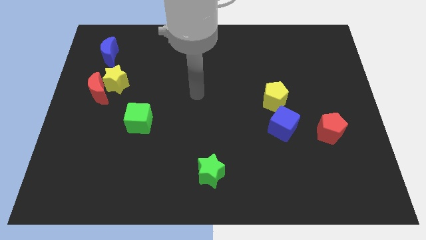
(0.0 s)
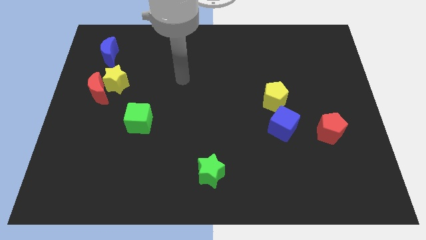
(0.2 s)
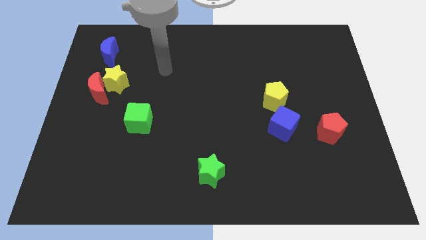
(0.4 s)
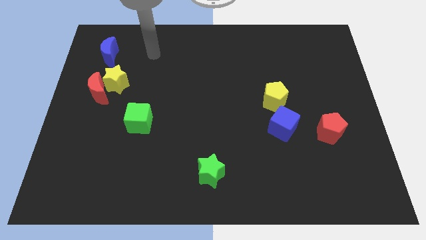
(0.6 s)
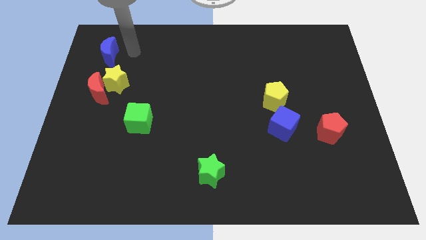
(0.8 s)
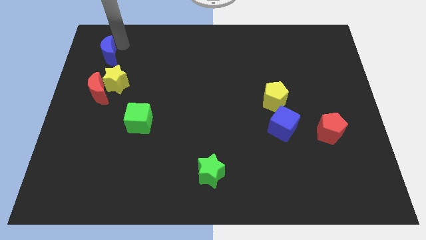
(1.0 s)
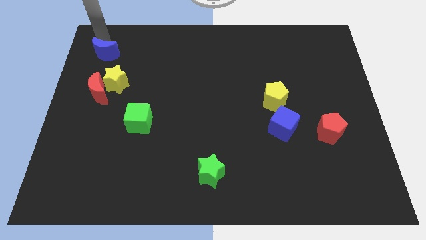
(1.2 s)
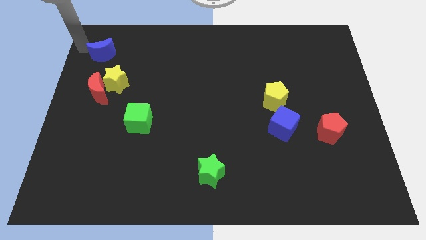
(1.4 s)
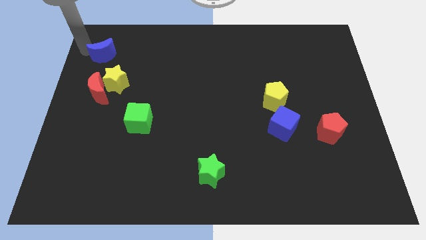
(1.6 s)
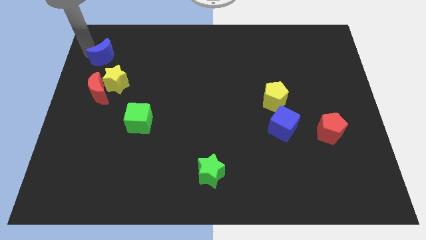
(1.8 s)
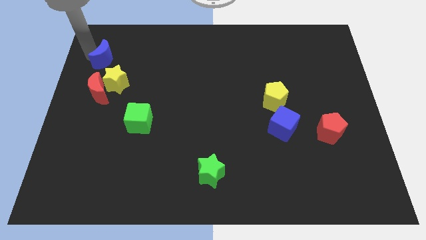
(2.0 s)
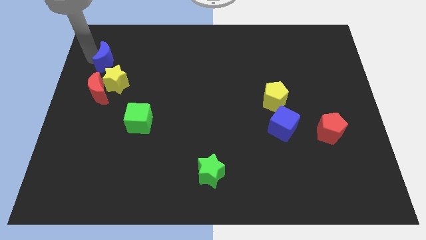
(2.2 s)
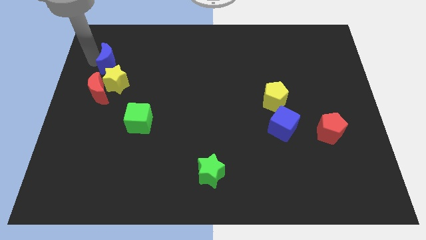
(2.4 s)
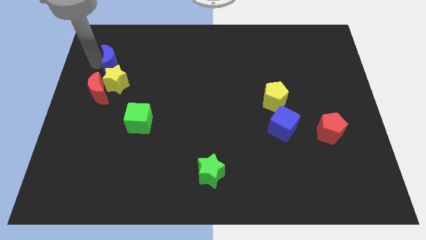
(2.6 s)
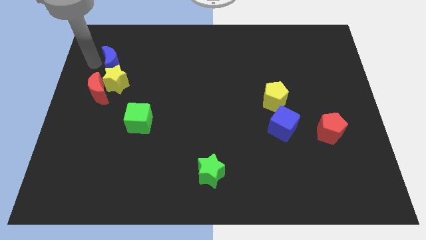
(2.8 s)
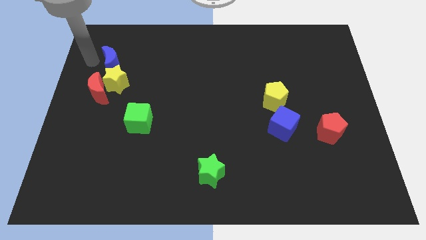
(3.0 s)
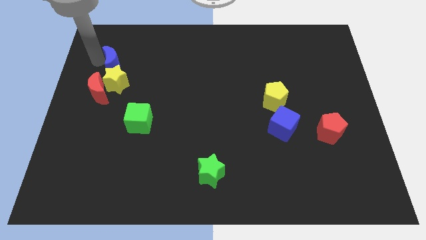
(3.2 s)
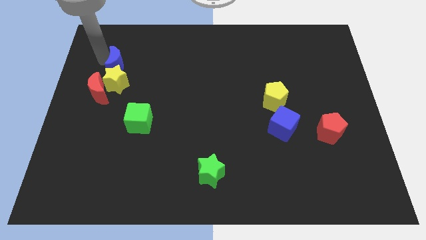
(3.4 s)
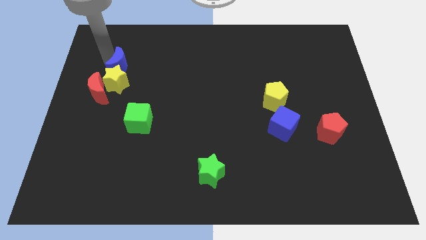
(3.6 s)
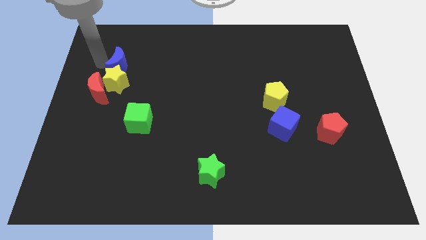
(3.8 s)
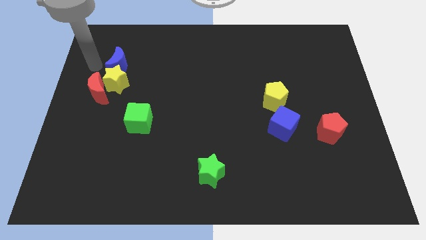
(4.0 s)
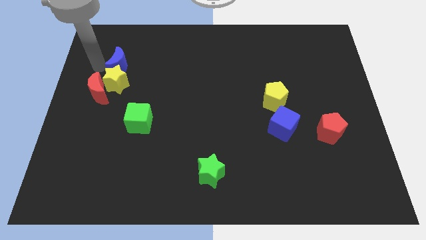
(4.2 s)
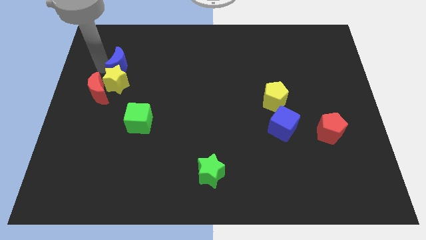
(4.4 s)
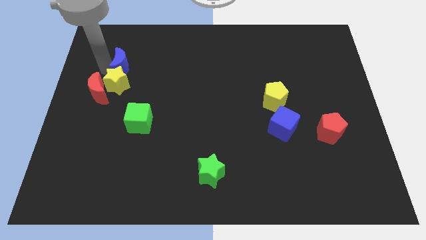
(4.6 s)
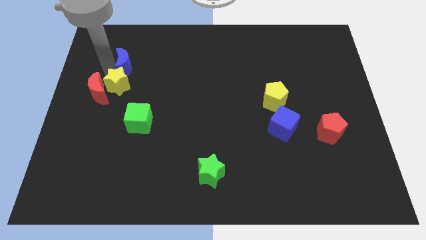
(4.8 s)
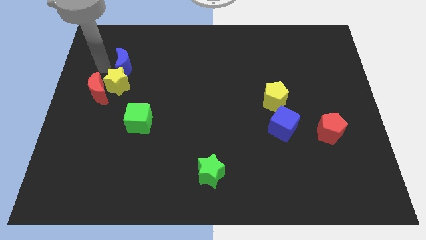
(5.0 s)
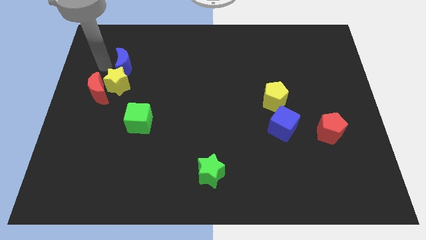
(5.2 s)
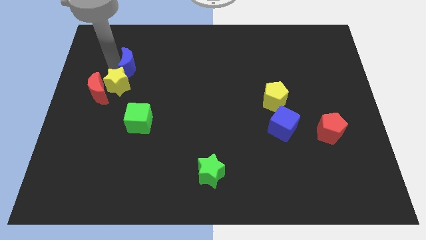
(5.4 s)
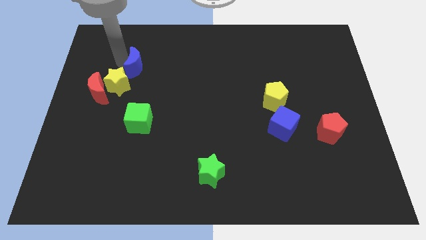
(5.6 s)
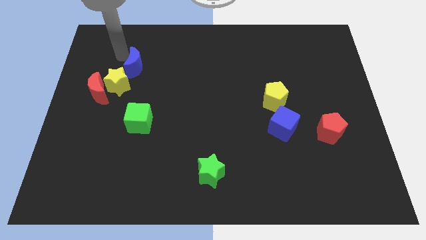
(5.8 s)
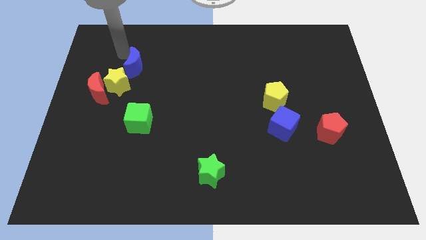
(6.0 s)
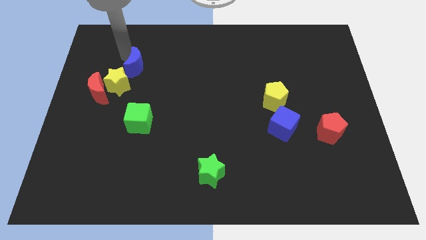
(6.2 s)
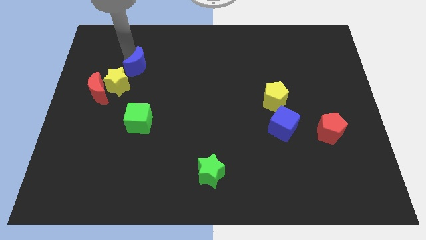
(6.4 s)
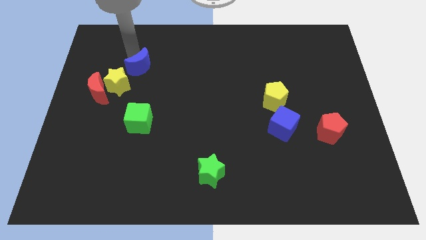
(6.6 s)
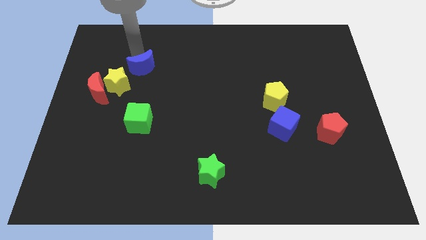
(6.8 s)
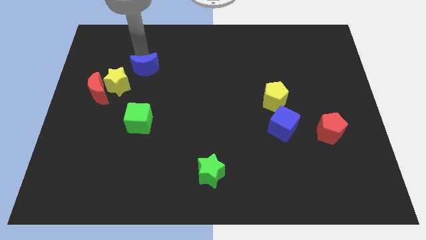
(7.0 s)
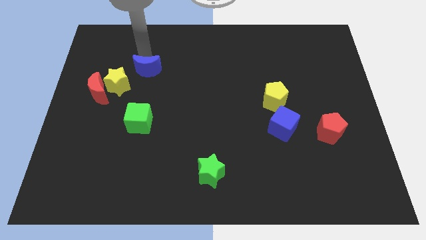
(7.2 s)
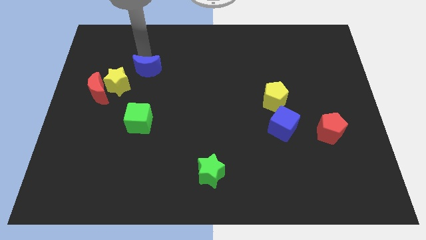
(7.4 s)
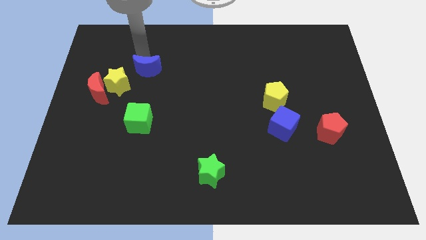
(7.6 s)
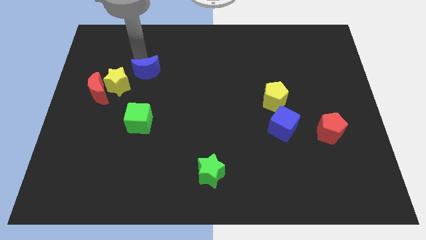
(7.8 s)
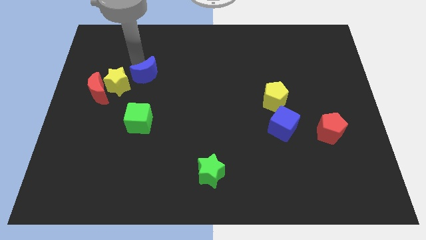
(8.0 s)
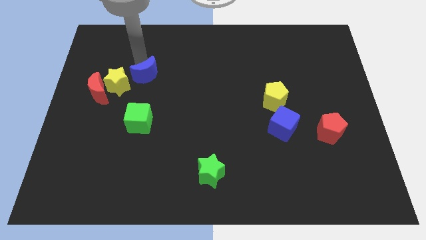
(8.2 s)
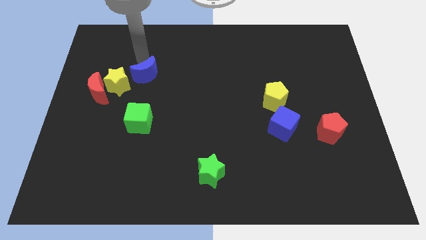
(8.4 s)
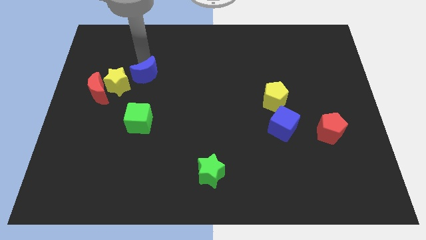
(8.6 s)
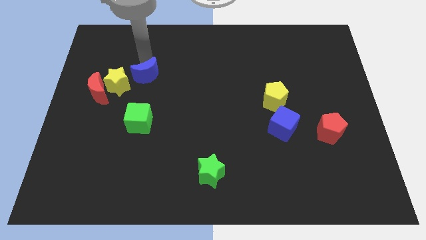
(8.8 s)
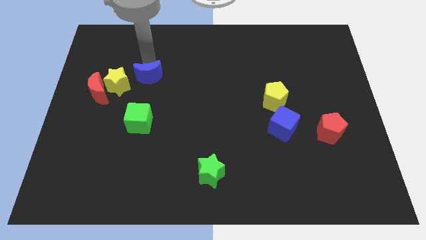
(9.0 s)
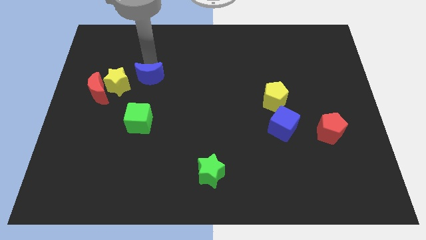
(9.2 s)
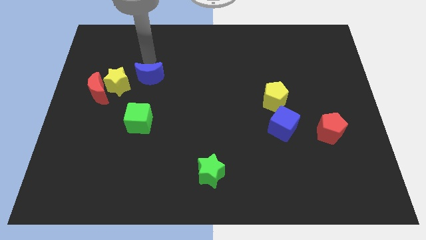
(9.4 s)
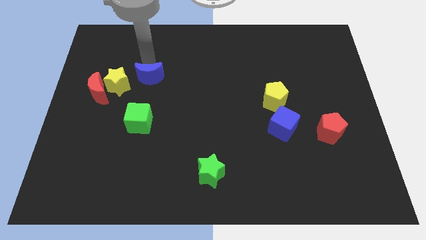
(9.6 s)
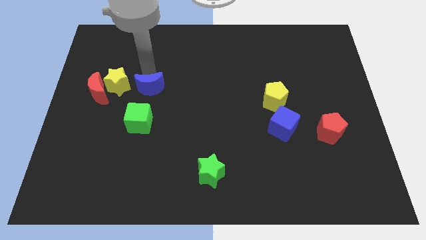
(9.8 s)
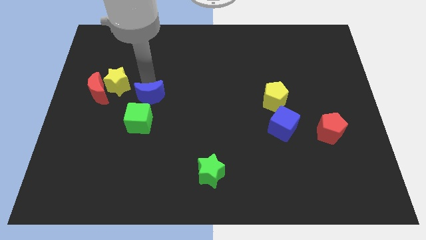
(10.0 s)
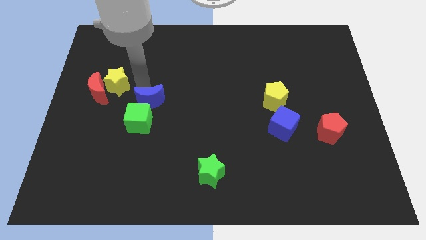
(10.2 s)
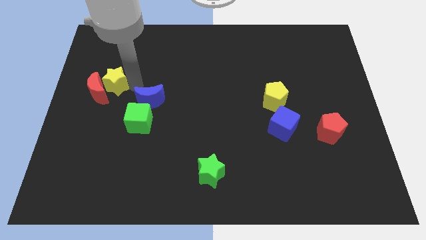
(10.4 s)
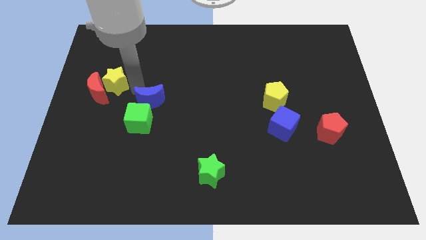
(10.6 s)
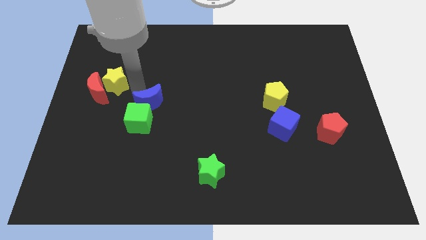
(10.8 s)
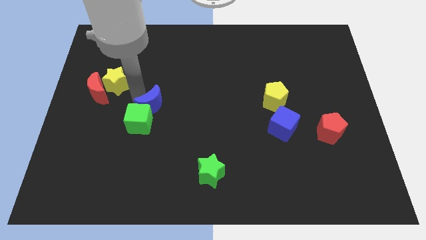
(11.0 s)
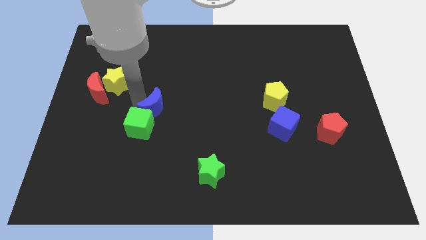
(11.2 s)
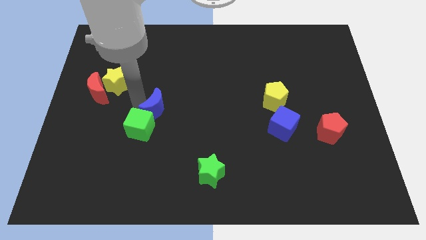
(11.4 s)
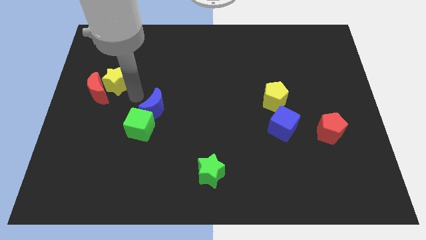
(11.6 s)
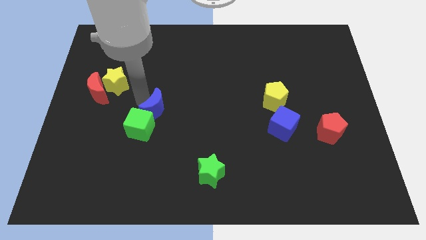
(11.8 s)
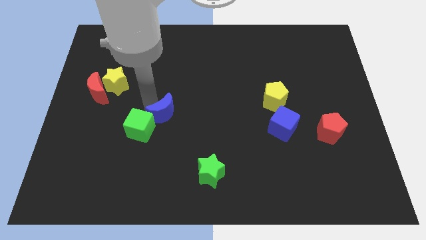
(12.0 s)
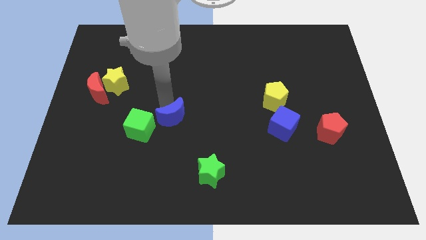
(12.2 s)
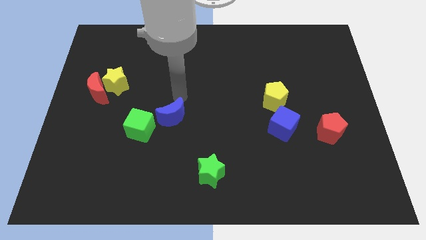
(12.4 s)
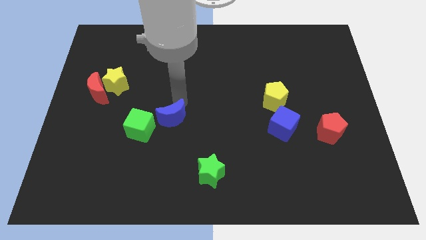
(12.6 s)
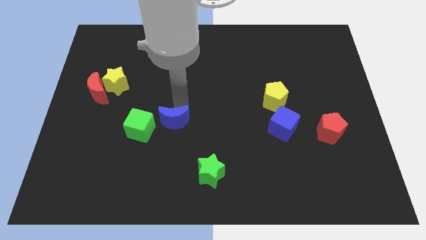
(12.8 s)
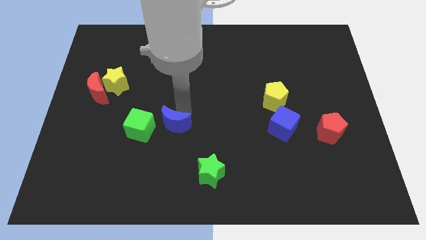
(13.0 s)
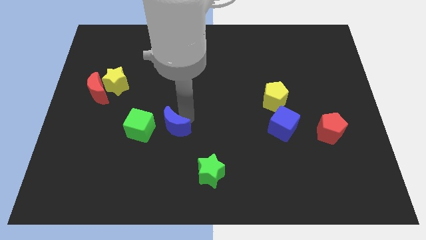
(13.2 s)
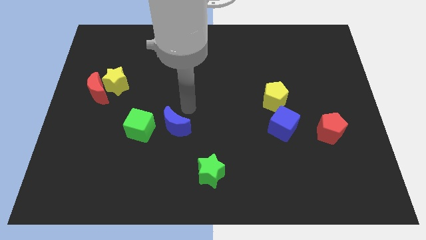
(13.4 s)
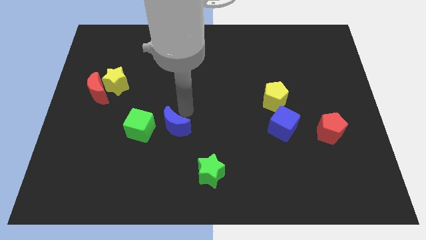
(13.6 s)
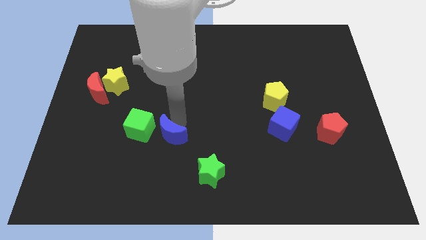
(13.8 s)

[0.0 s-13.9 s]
slide the blue moon to the bottom right of the green cube

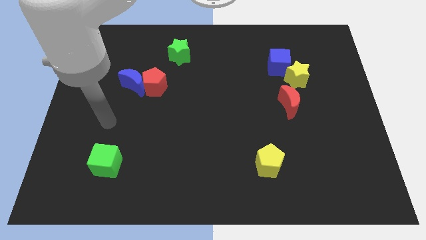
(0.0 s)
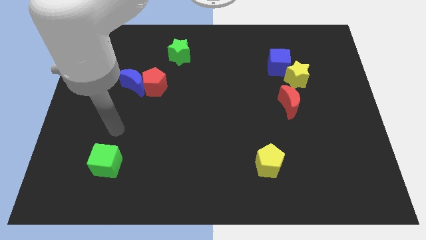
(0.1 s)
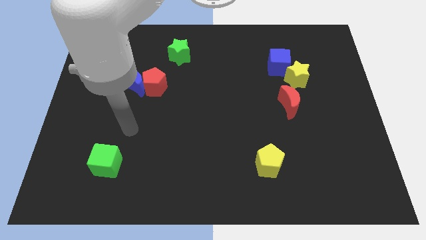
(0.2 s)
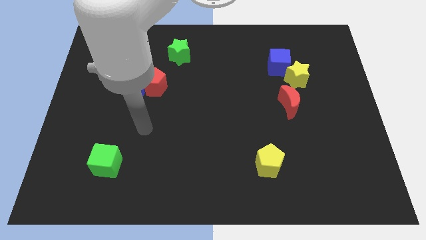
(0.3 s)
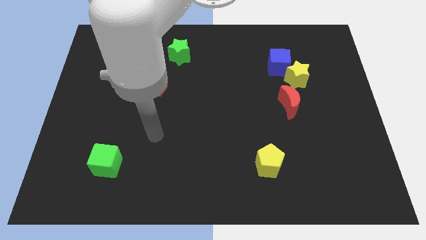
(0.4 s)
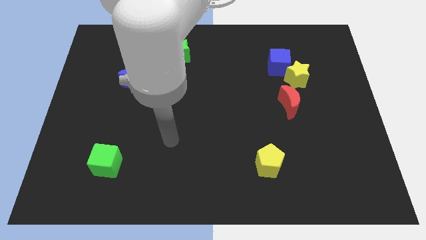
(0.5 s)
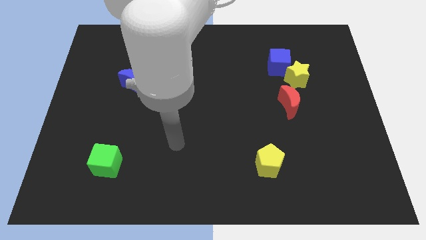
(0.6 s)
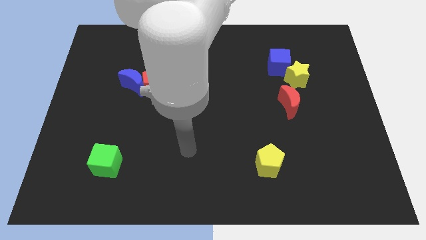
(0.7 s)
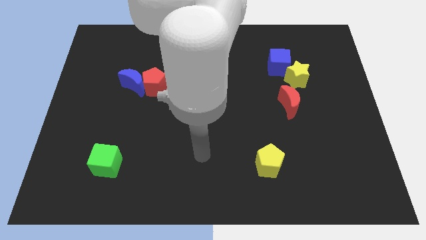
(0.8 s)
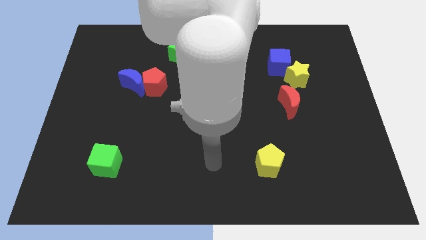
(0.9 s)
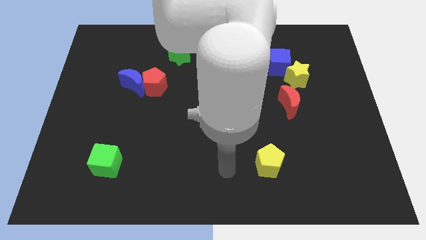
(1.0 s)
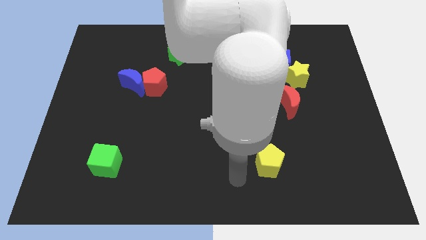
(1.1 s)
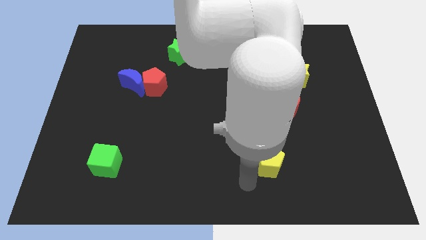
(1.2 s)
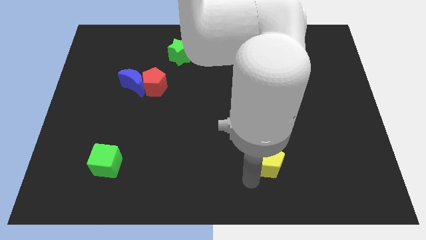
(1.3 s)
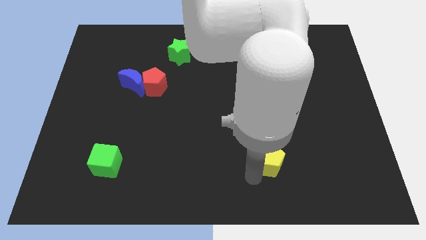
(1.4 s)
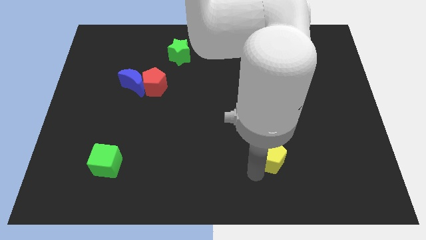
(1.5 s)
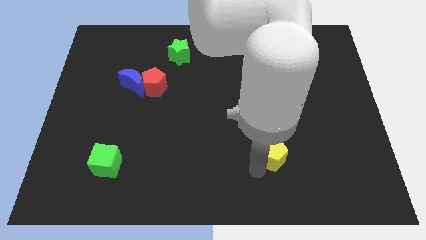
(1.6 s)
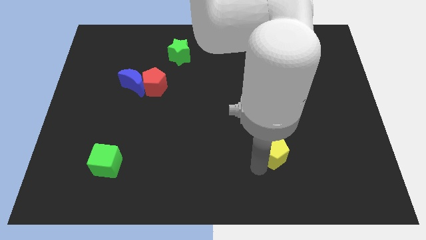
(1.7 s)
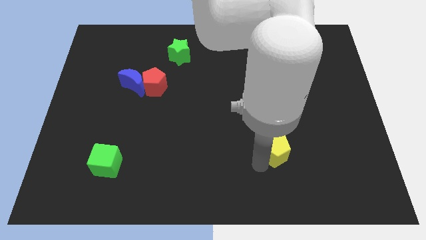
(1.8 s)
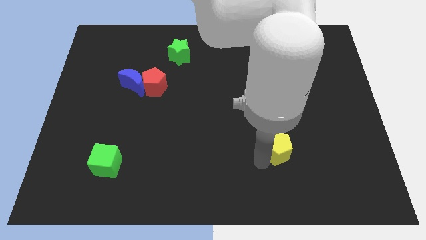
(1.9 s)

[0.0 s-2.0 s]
slide the yellow pentagon to the bottom side of the red moon
